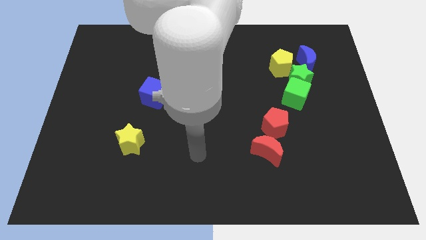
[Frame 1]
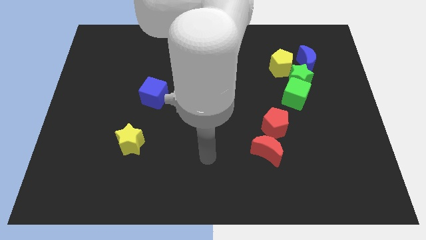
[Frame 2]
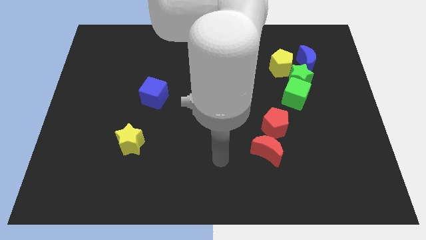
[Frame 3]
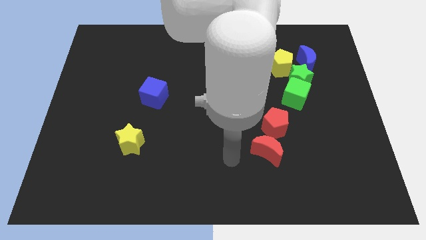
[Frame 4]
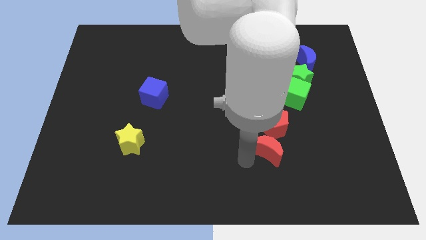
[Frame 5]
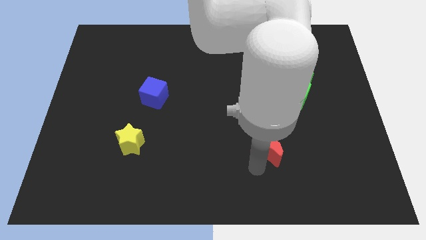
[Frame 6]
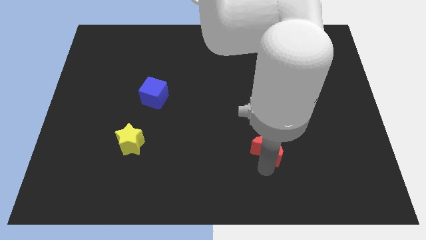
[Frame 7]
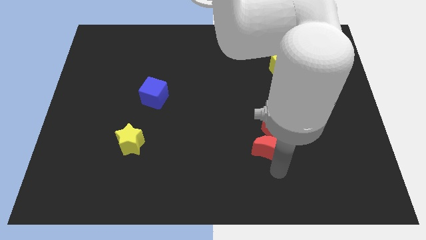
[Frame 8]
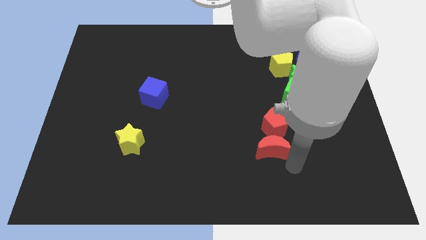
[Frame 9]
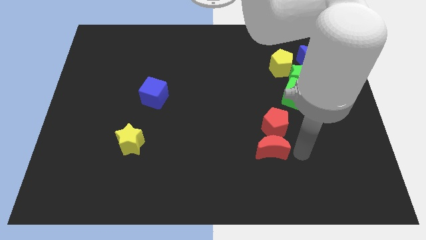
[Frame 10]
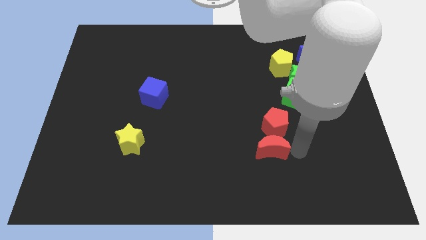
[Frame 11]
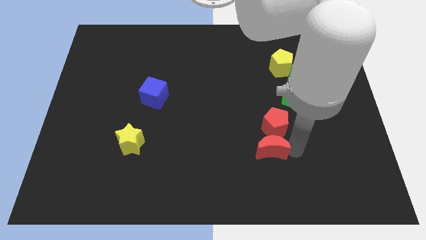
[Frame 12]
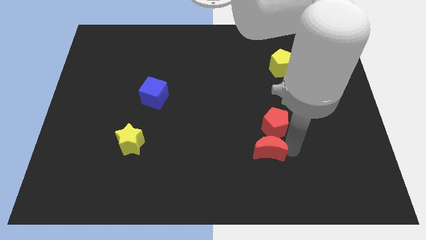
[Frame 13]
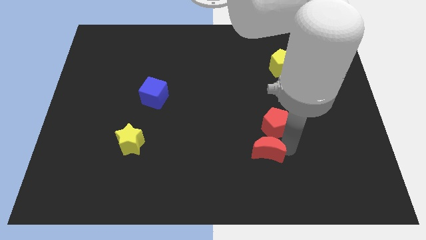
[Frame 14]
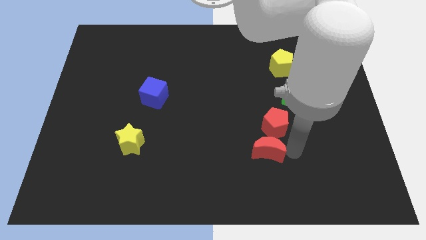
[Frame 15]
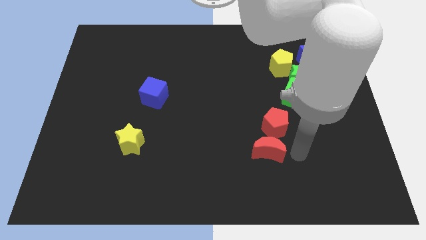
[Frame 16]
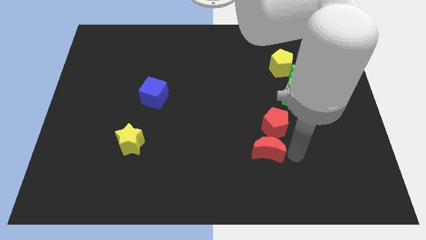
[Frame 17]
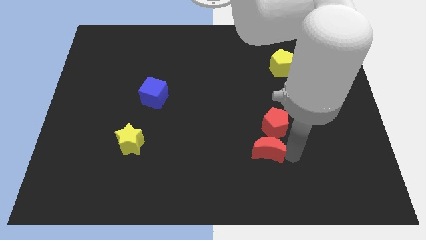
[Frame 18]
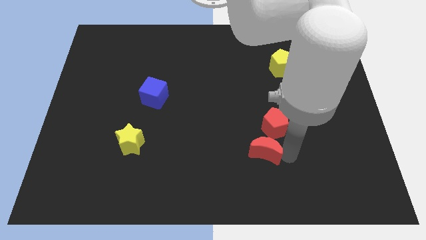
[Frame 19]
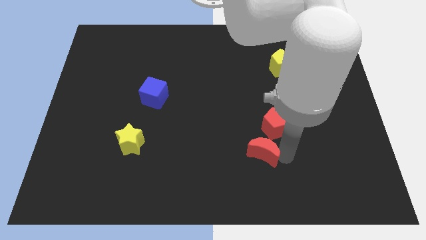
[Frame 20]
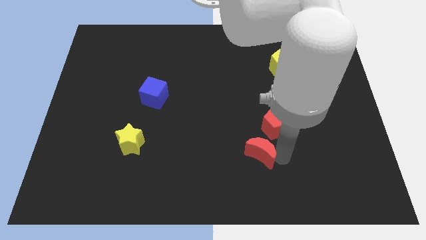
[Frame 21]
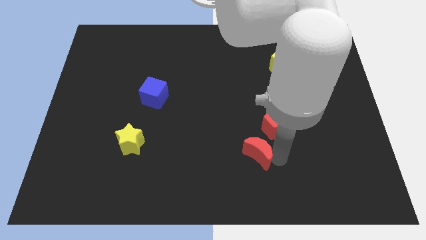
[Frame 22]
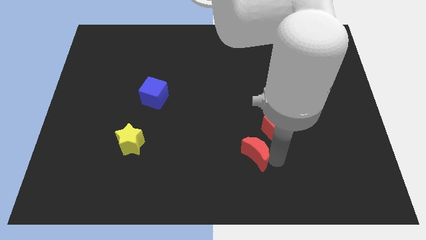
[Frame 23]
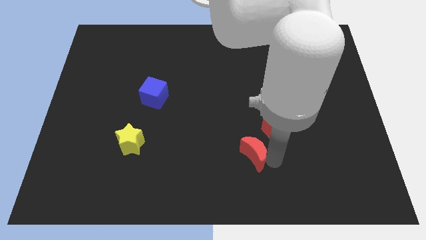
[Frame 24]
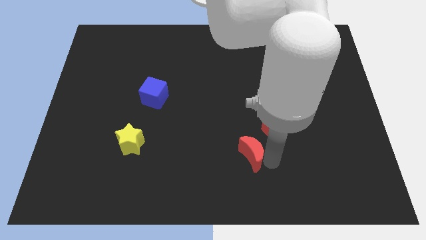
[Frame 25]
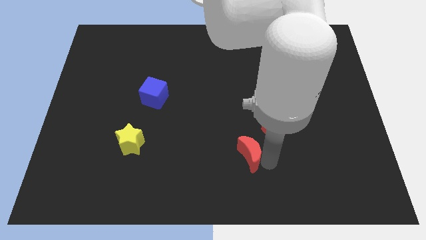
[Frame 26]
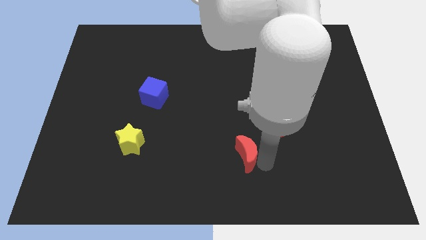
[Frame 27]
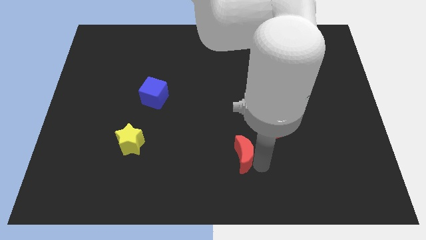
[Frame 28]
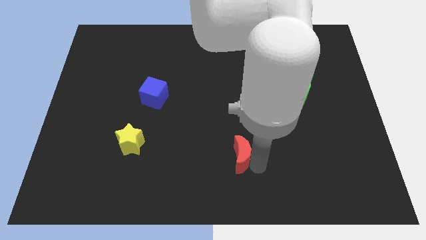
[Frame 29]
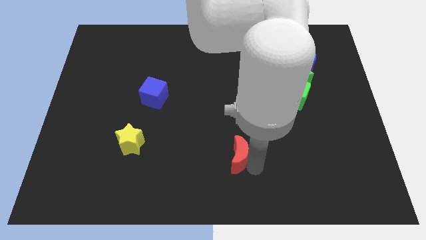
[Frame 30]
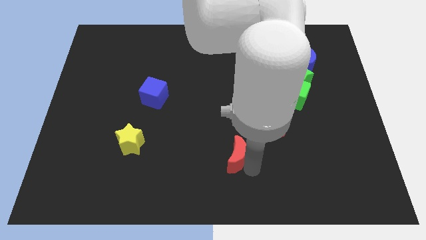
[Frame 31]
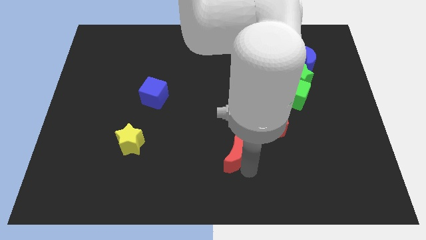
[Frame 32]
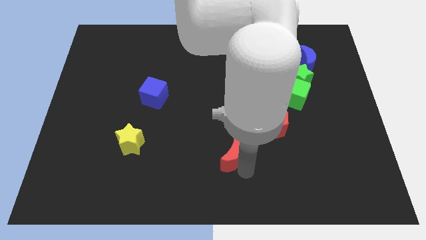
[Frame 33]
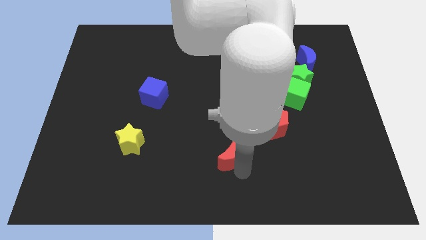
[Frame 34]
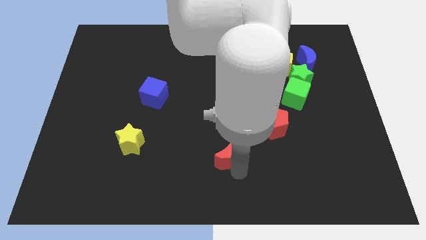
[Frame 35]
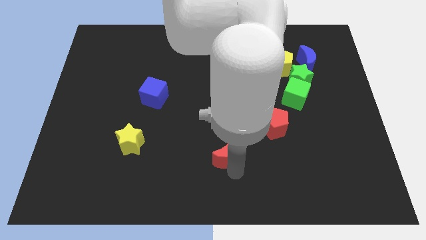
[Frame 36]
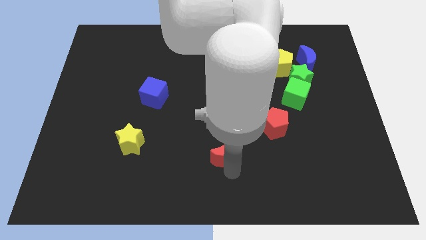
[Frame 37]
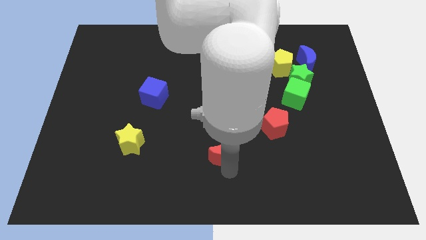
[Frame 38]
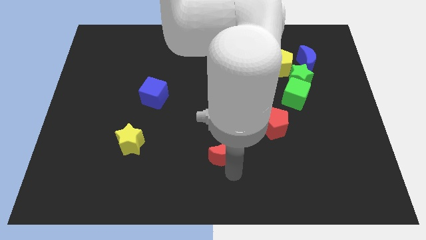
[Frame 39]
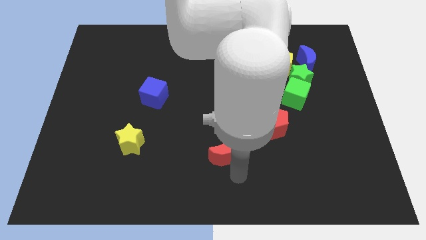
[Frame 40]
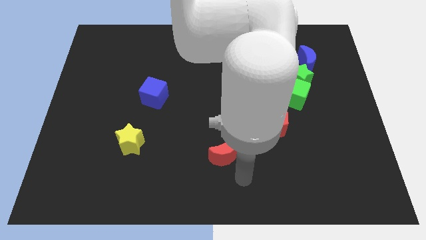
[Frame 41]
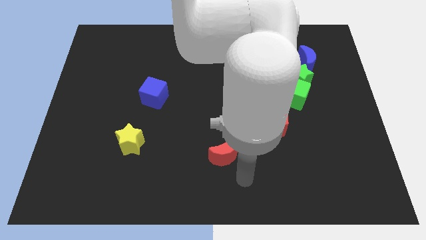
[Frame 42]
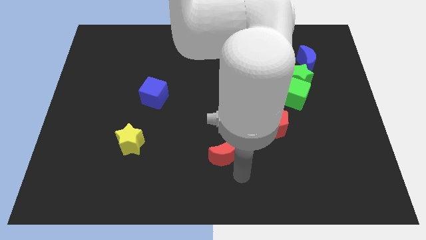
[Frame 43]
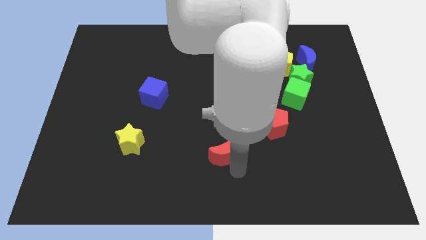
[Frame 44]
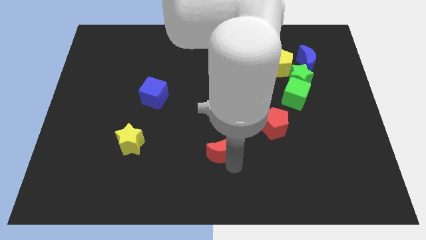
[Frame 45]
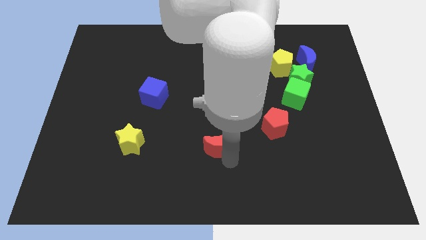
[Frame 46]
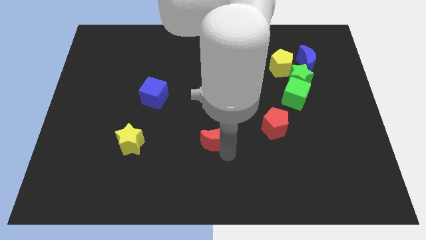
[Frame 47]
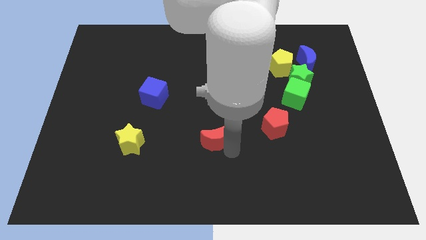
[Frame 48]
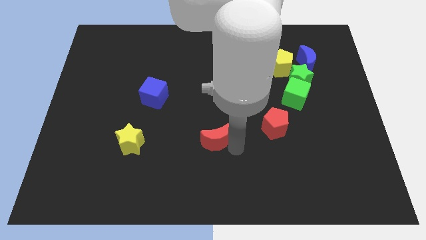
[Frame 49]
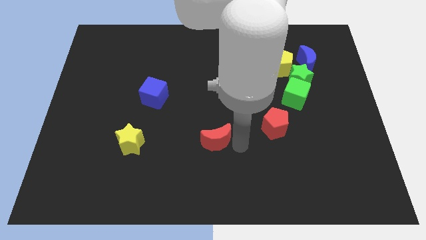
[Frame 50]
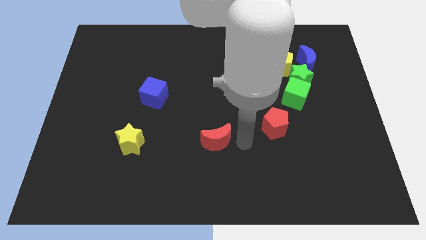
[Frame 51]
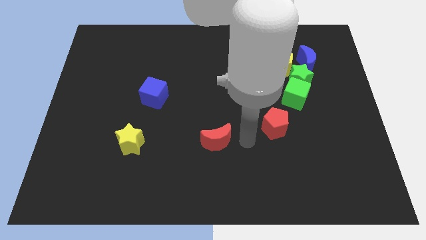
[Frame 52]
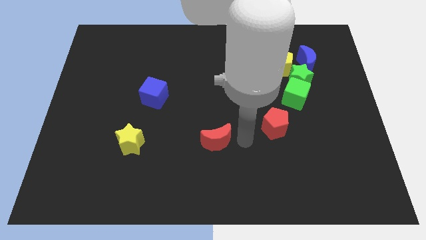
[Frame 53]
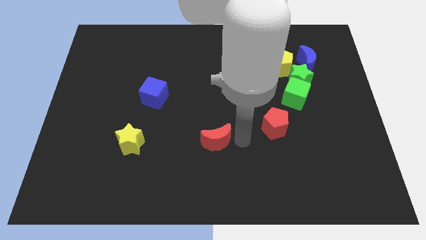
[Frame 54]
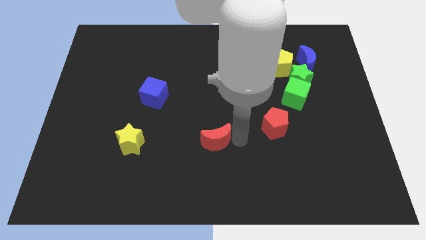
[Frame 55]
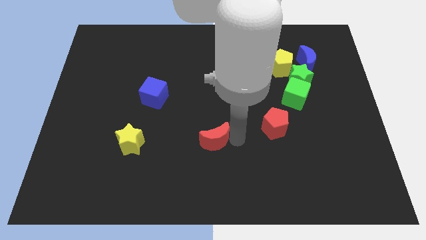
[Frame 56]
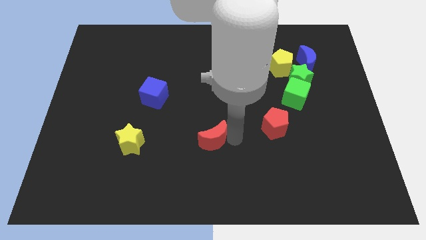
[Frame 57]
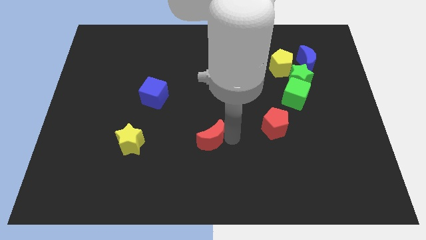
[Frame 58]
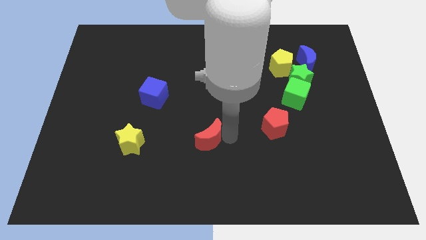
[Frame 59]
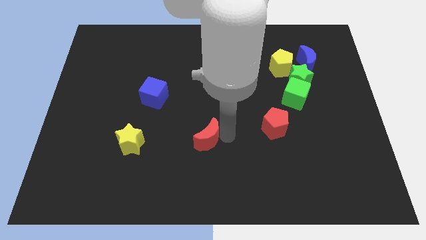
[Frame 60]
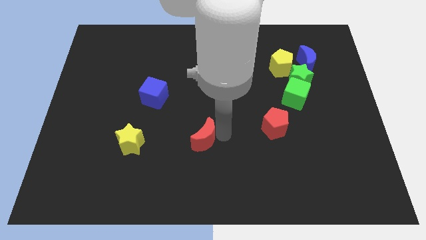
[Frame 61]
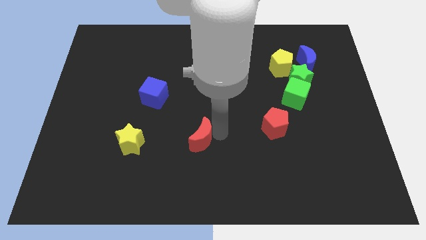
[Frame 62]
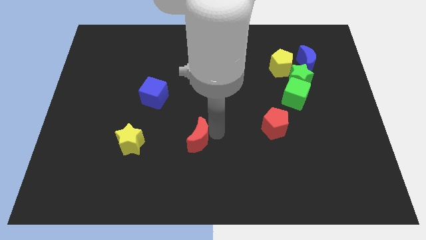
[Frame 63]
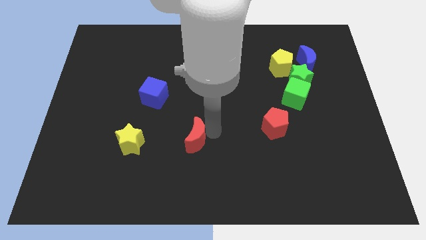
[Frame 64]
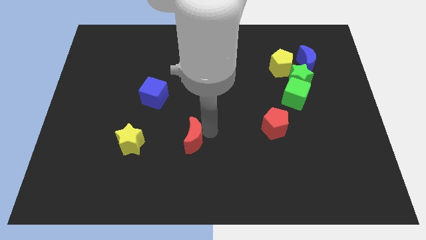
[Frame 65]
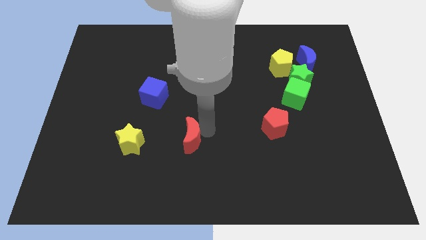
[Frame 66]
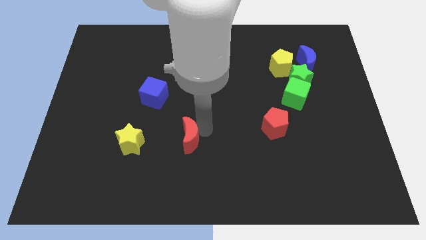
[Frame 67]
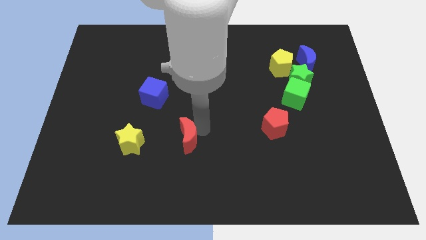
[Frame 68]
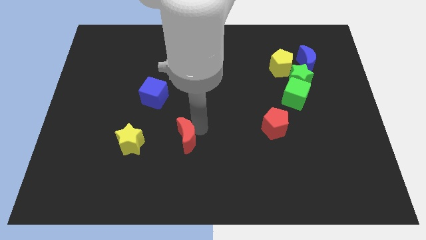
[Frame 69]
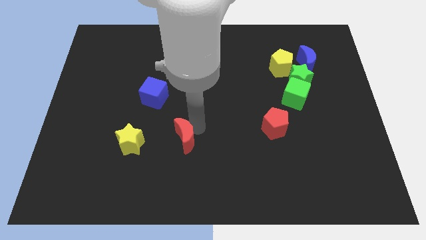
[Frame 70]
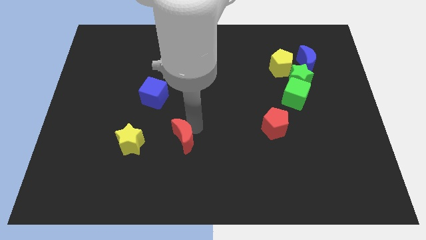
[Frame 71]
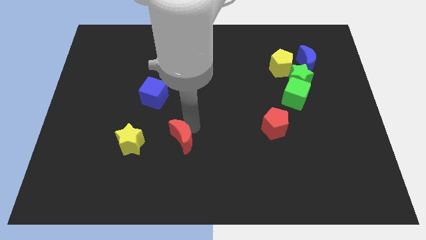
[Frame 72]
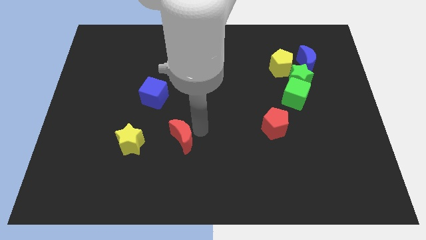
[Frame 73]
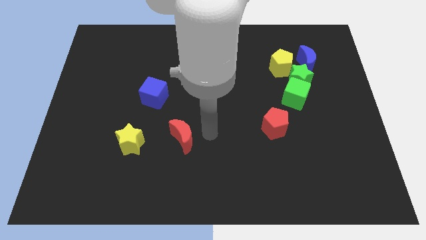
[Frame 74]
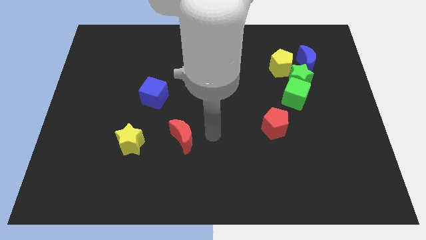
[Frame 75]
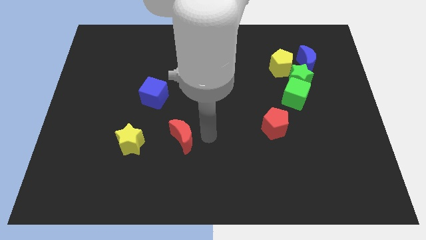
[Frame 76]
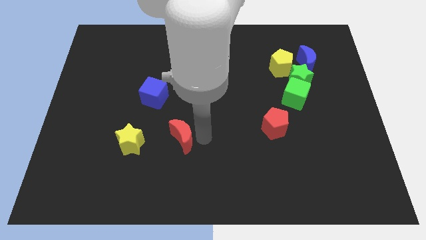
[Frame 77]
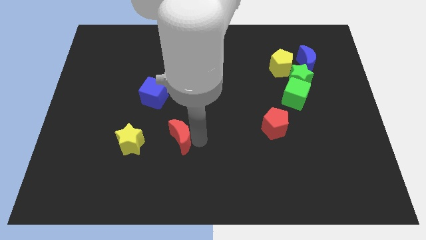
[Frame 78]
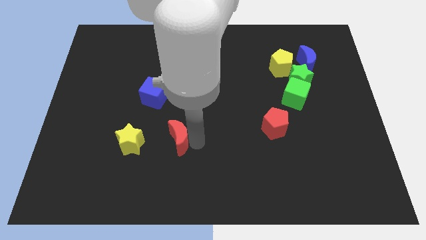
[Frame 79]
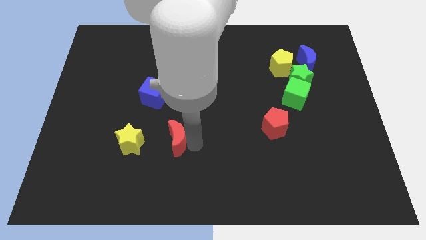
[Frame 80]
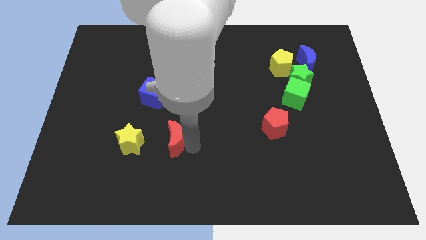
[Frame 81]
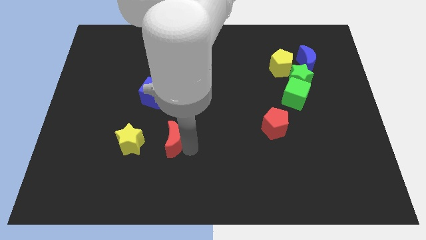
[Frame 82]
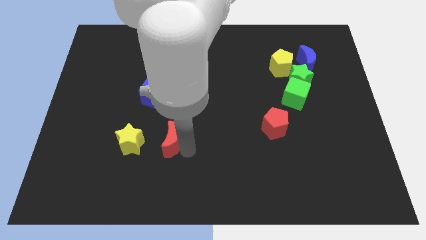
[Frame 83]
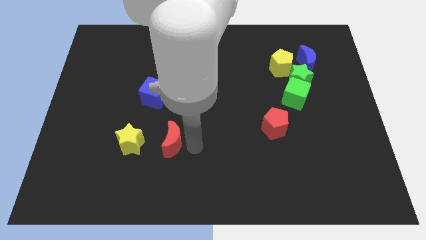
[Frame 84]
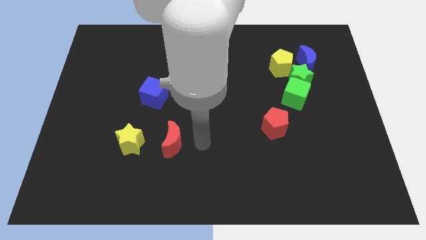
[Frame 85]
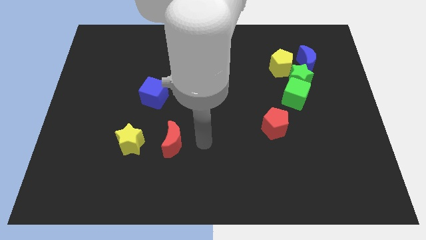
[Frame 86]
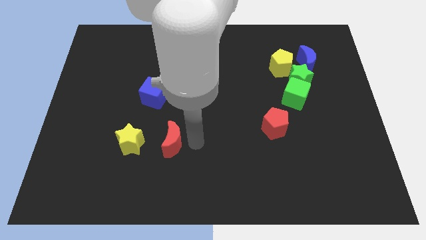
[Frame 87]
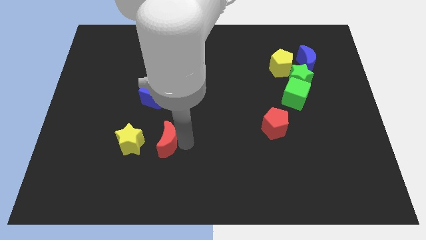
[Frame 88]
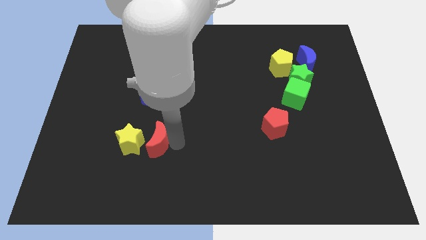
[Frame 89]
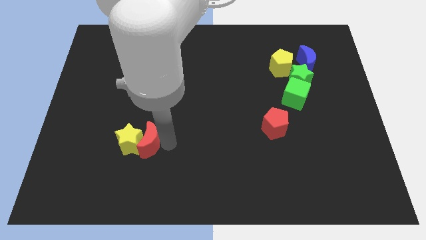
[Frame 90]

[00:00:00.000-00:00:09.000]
move the red moon to the yellow star
